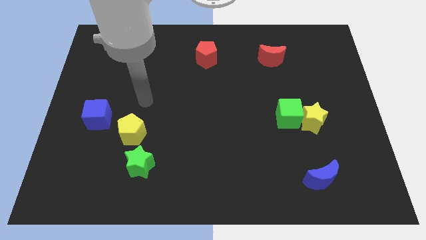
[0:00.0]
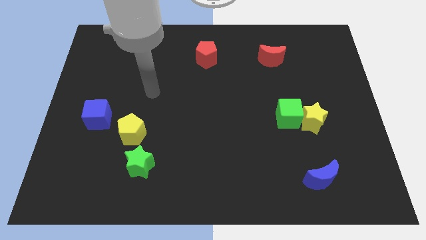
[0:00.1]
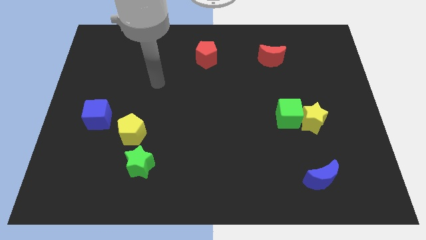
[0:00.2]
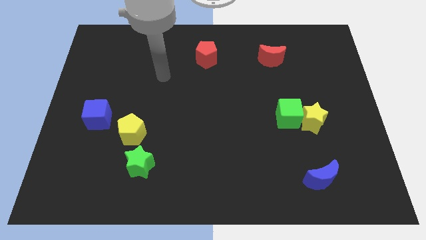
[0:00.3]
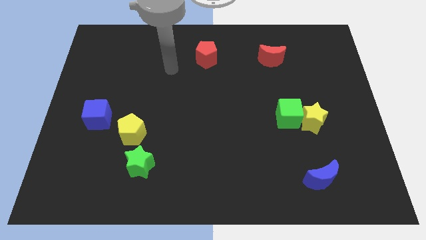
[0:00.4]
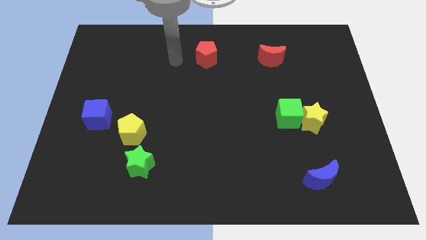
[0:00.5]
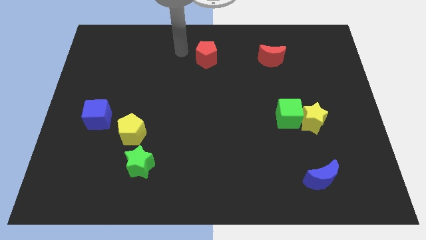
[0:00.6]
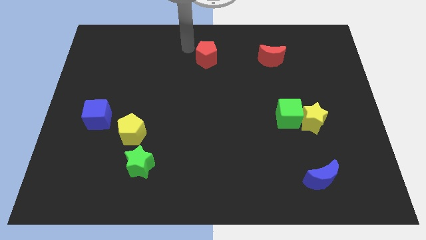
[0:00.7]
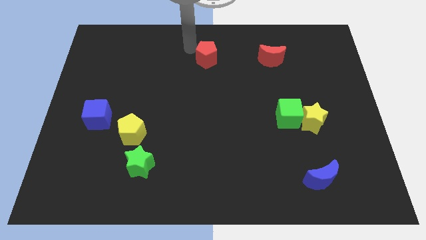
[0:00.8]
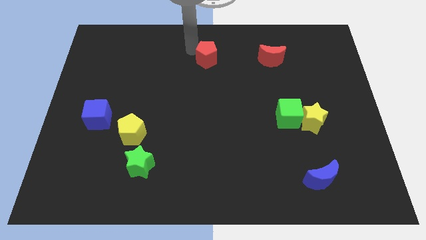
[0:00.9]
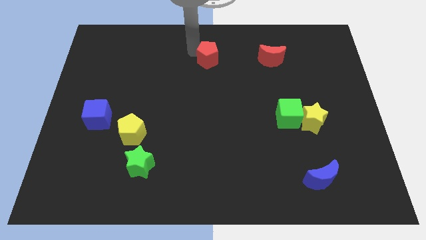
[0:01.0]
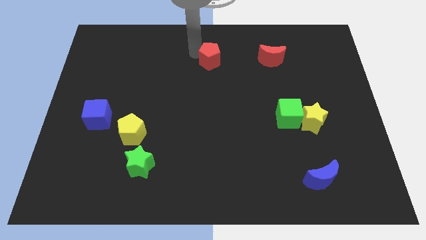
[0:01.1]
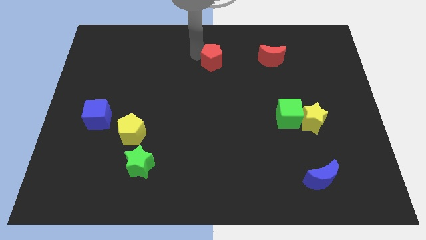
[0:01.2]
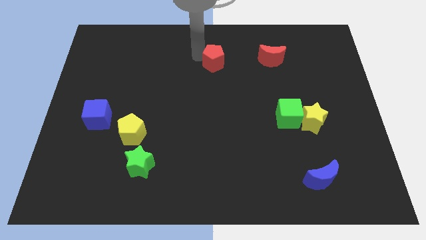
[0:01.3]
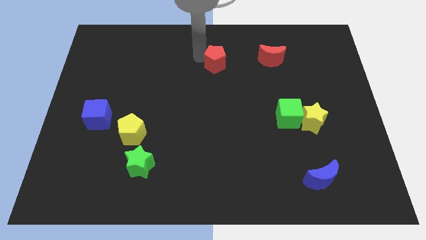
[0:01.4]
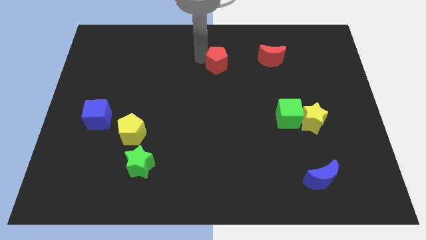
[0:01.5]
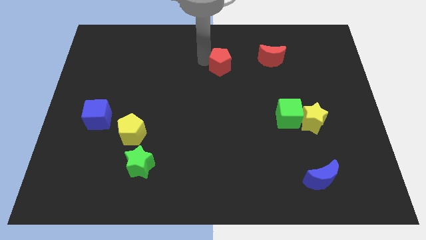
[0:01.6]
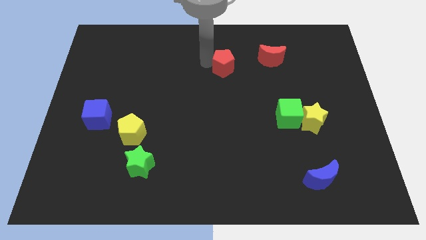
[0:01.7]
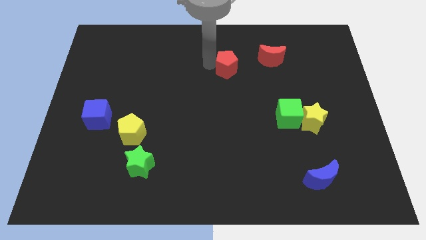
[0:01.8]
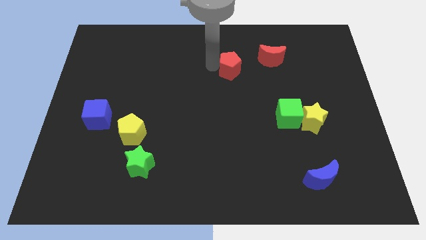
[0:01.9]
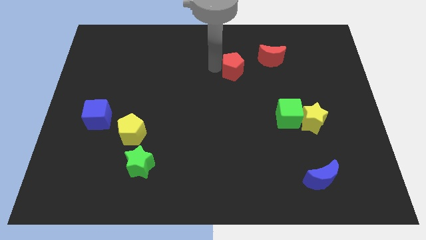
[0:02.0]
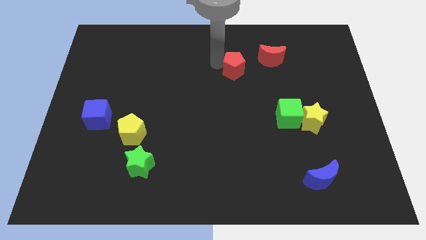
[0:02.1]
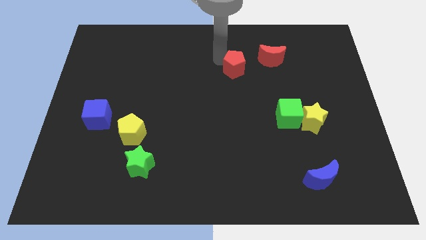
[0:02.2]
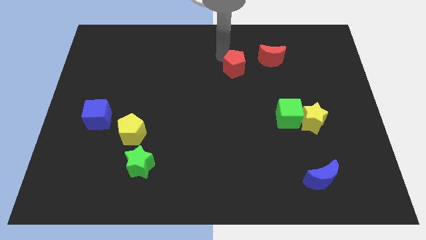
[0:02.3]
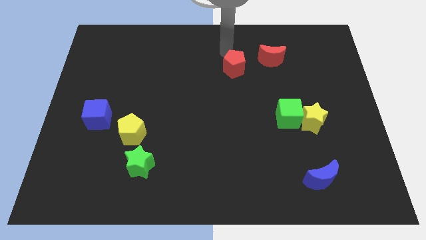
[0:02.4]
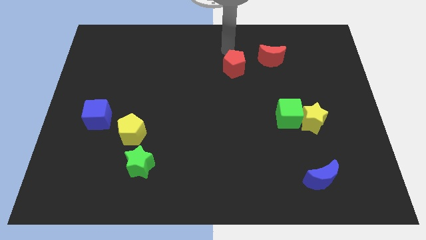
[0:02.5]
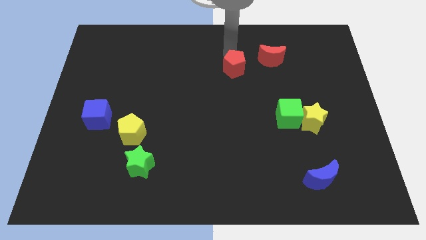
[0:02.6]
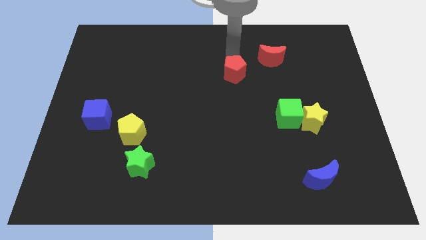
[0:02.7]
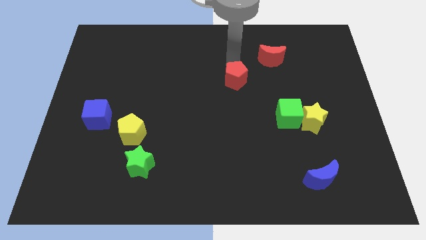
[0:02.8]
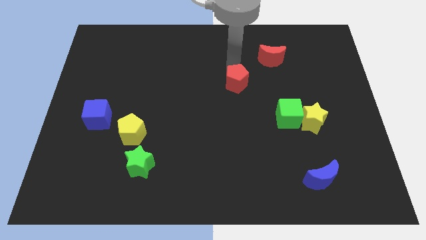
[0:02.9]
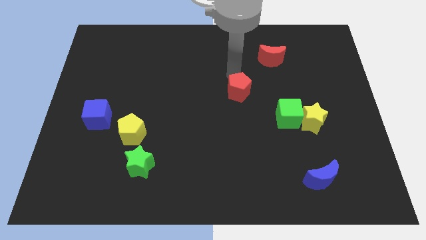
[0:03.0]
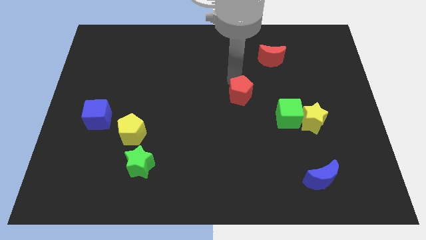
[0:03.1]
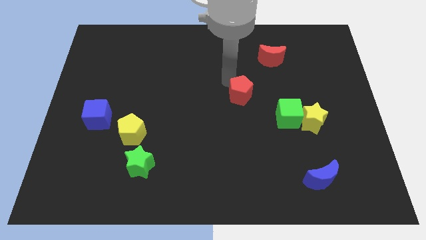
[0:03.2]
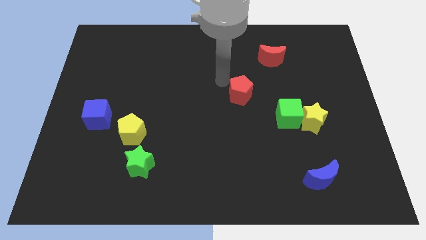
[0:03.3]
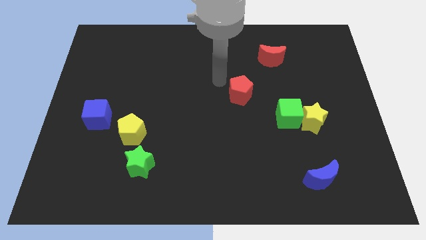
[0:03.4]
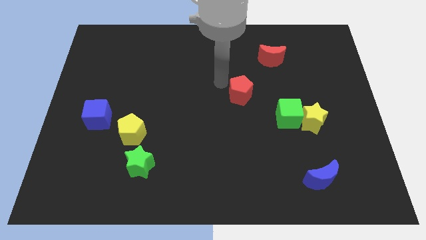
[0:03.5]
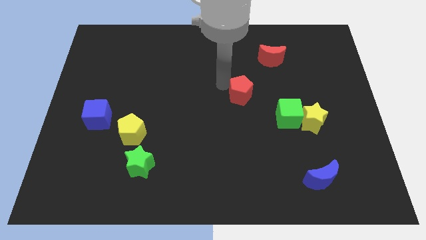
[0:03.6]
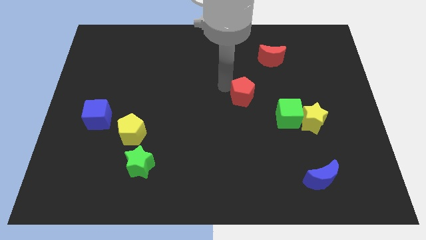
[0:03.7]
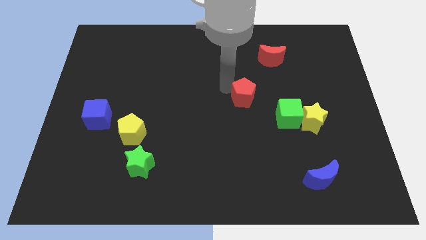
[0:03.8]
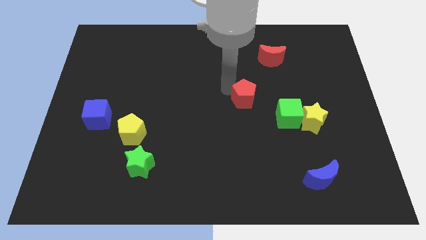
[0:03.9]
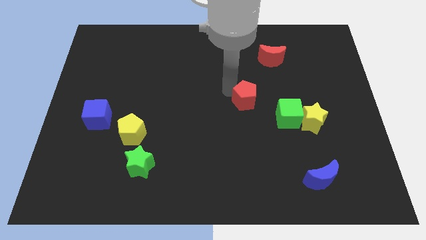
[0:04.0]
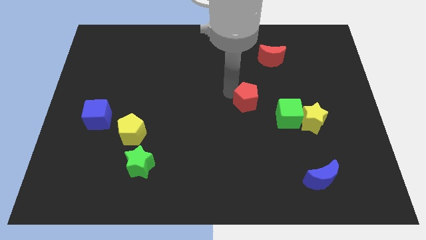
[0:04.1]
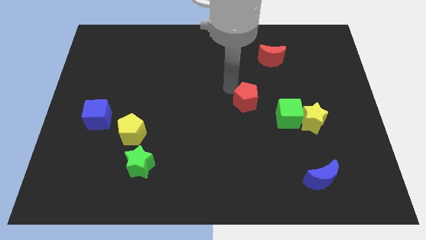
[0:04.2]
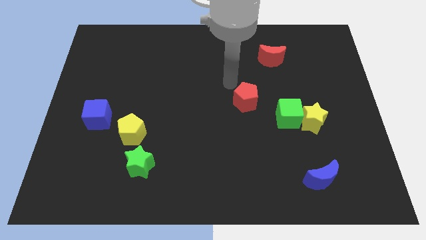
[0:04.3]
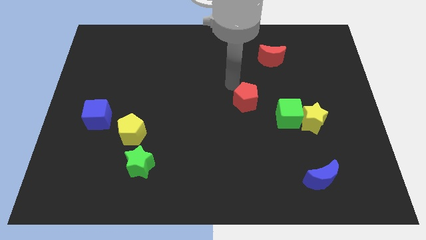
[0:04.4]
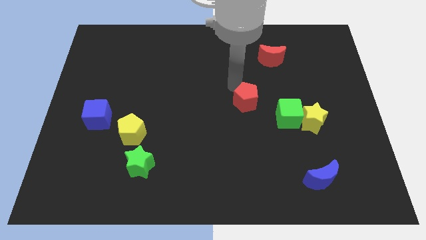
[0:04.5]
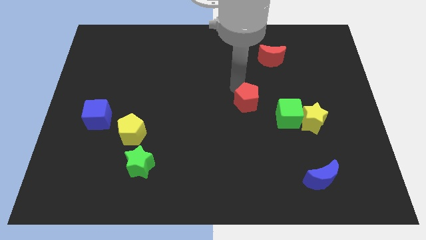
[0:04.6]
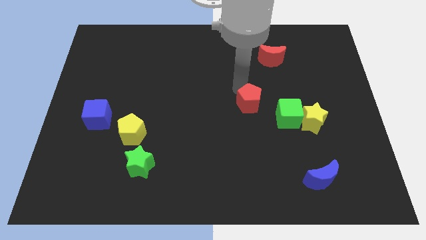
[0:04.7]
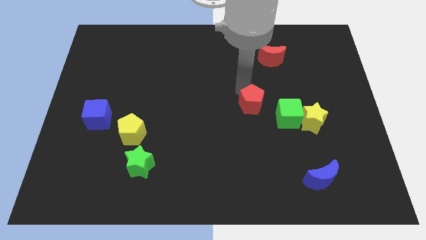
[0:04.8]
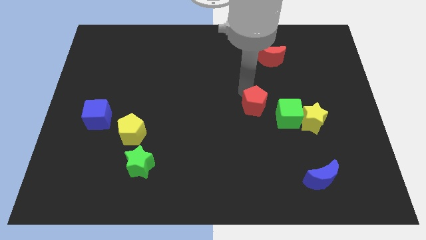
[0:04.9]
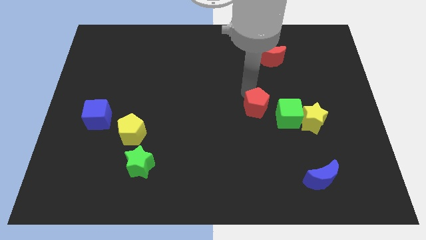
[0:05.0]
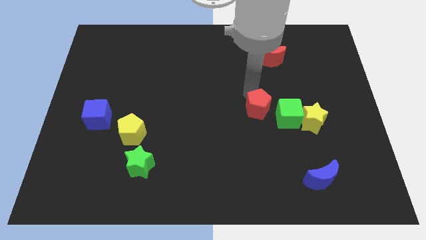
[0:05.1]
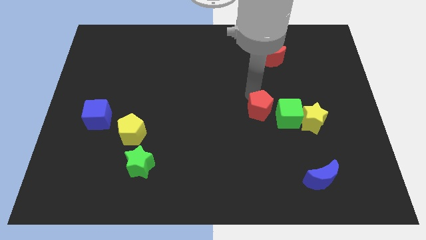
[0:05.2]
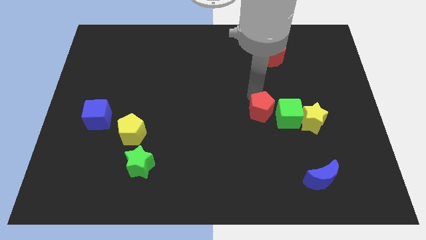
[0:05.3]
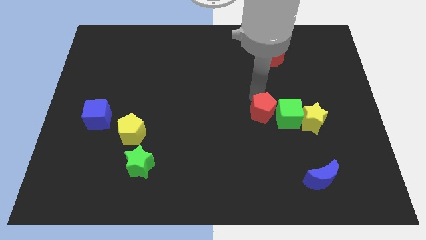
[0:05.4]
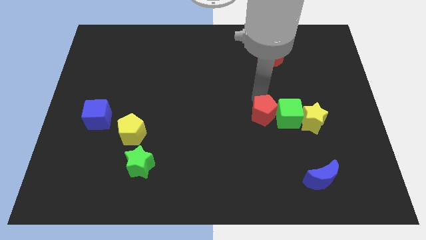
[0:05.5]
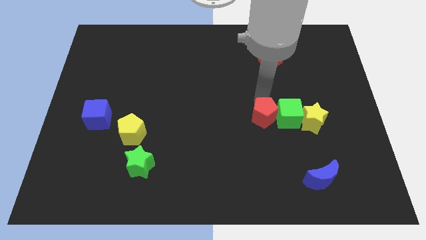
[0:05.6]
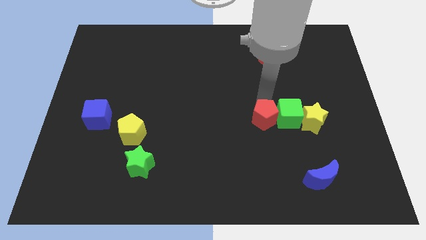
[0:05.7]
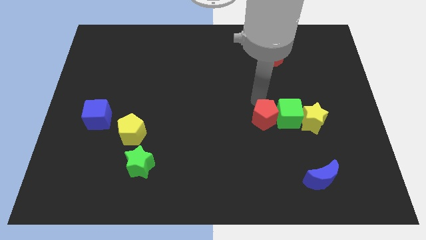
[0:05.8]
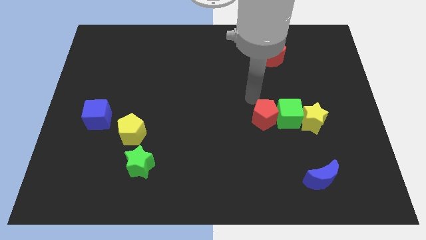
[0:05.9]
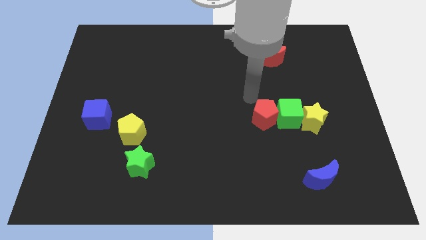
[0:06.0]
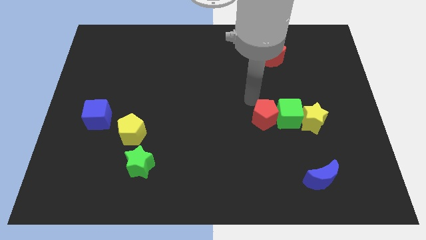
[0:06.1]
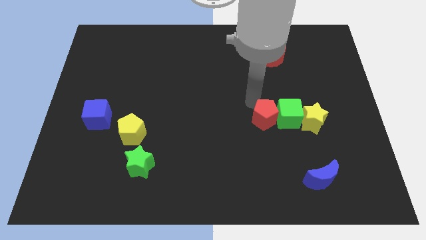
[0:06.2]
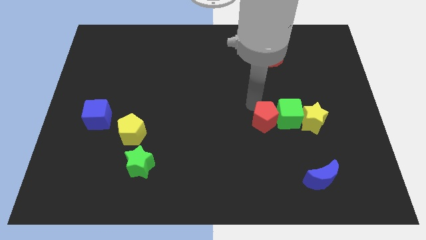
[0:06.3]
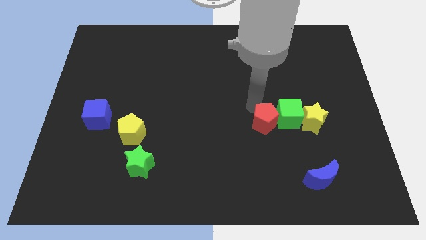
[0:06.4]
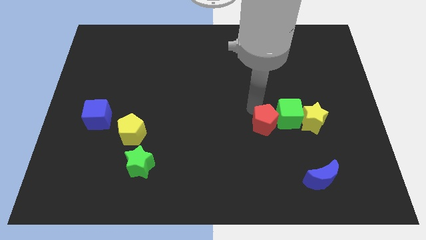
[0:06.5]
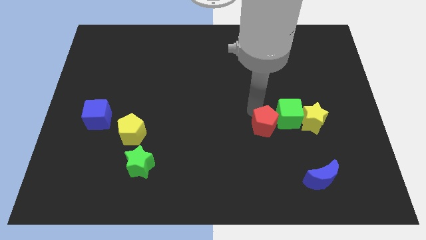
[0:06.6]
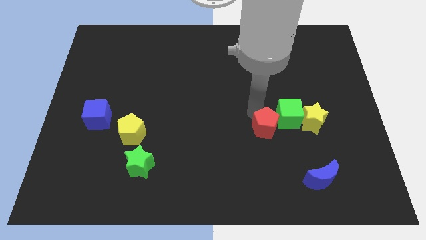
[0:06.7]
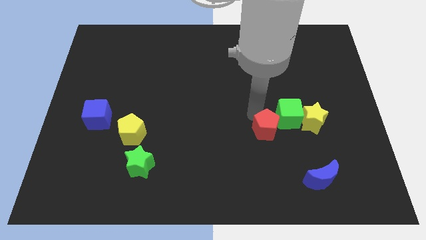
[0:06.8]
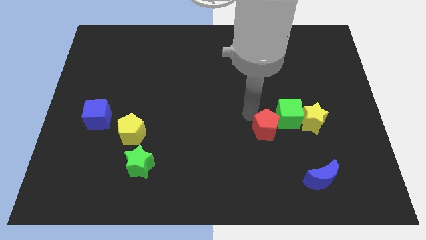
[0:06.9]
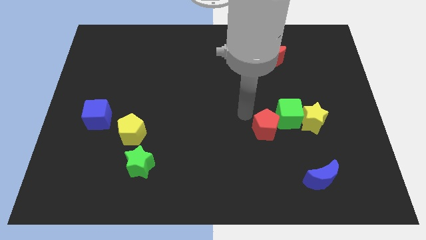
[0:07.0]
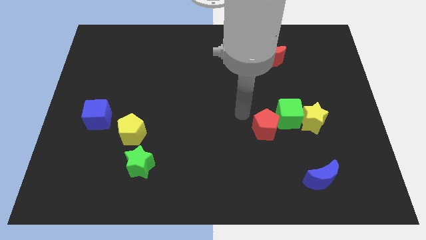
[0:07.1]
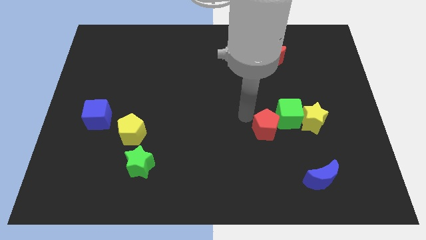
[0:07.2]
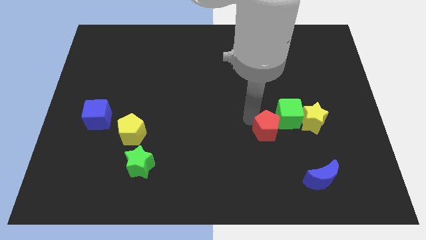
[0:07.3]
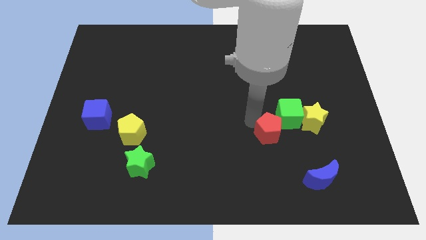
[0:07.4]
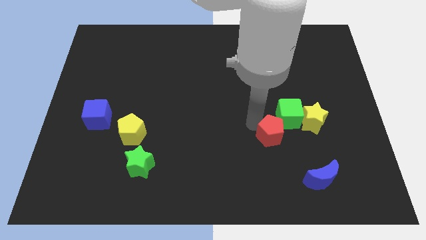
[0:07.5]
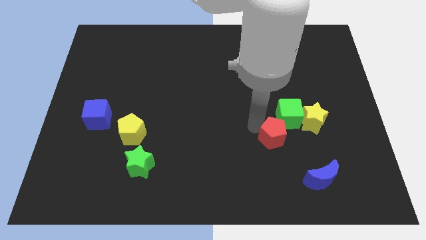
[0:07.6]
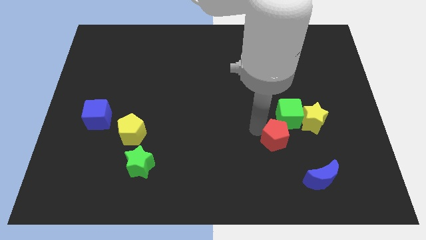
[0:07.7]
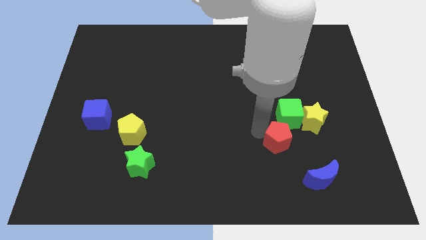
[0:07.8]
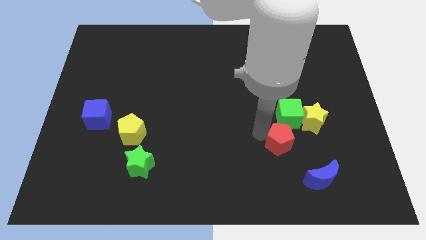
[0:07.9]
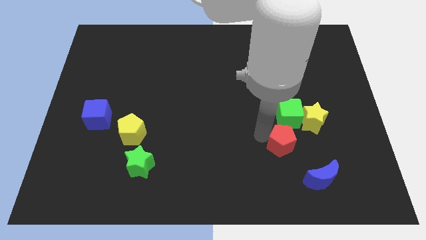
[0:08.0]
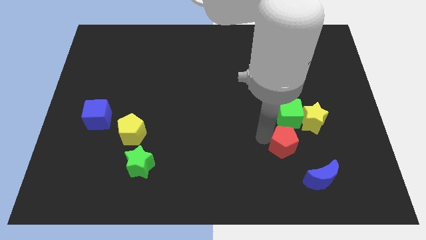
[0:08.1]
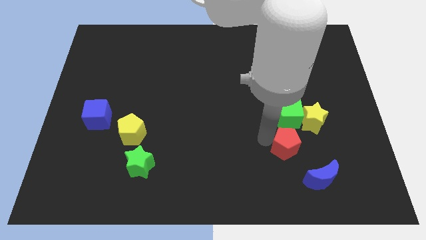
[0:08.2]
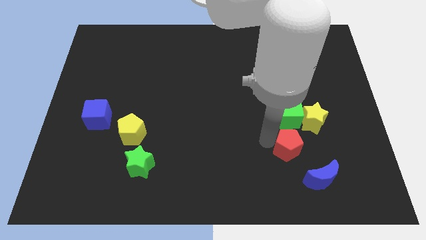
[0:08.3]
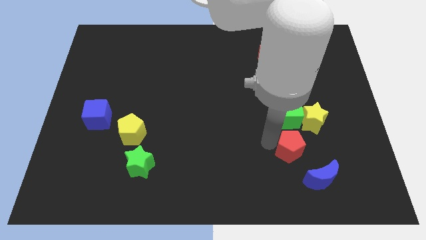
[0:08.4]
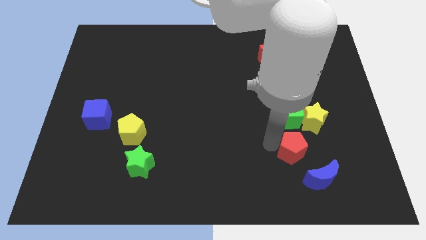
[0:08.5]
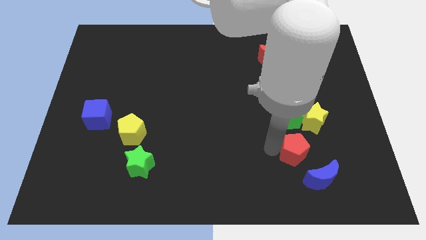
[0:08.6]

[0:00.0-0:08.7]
move the red pentagon to the top of the blue moon
